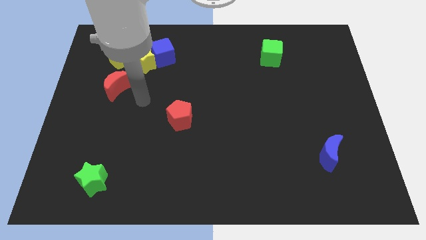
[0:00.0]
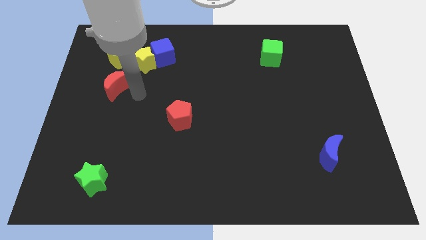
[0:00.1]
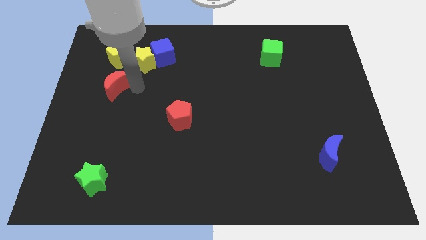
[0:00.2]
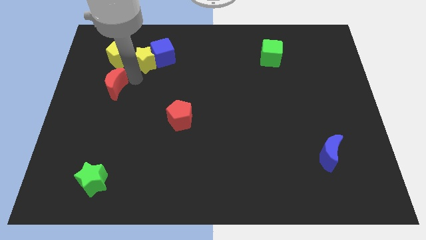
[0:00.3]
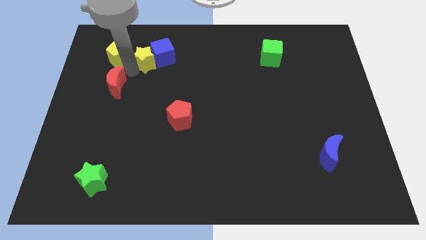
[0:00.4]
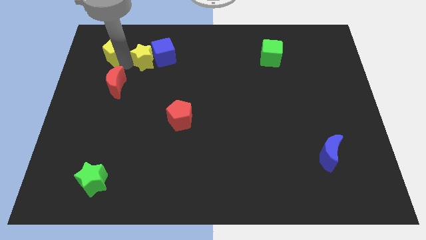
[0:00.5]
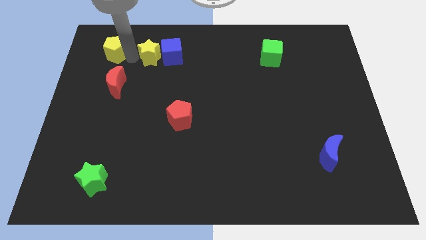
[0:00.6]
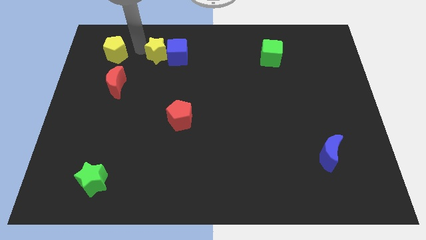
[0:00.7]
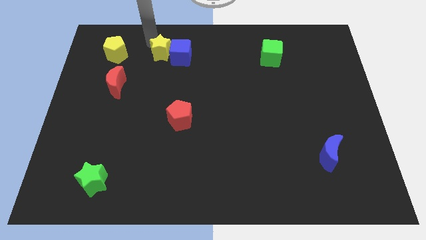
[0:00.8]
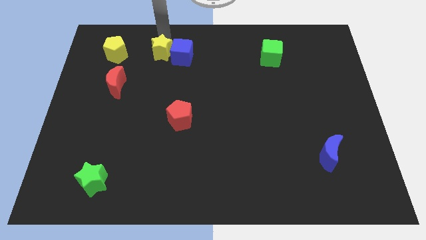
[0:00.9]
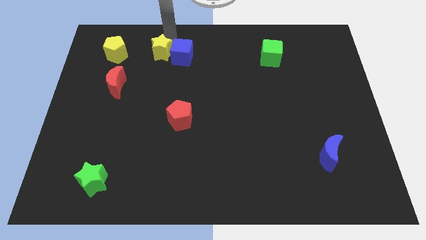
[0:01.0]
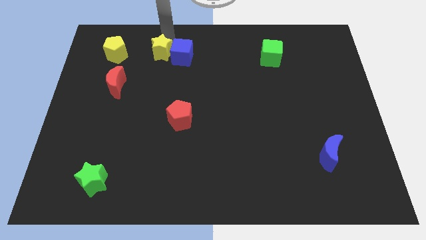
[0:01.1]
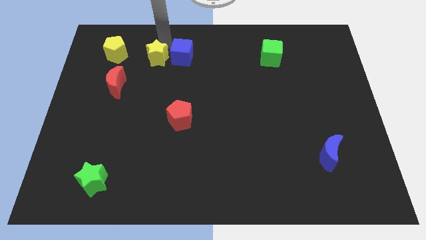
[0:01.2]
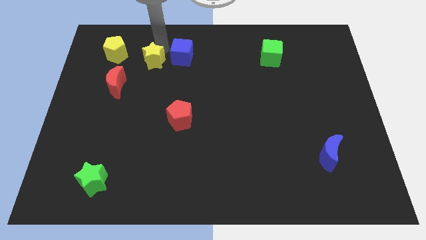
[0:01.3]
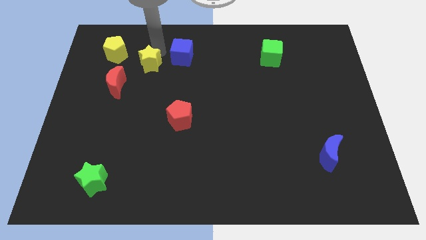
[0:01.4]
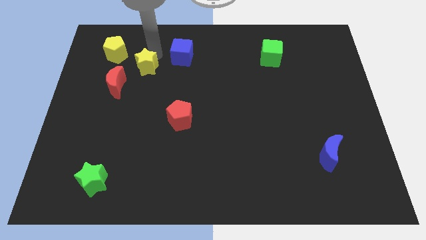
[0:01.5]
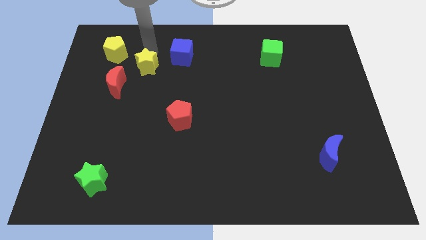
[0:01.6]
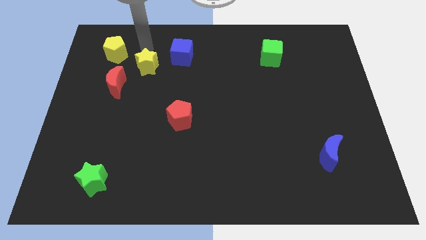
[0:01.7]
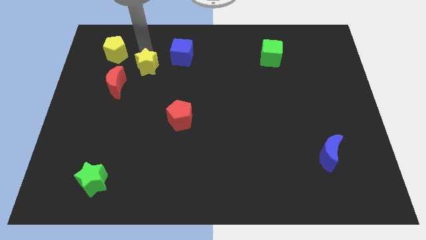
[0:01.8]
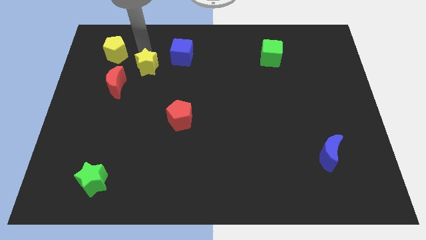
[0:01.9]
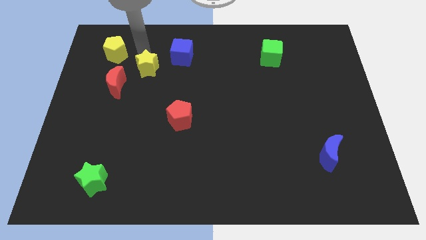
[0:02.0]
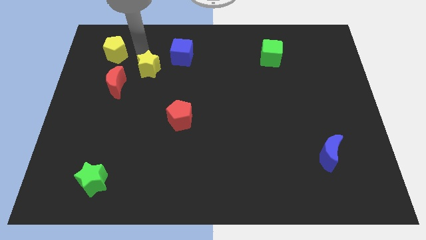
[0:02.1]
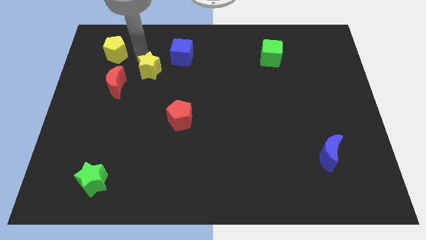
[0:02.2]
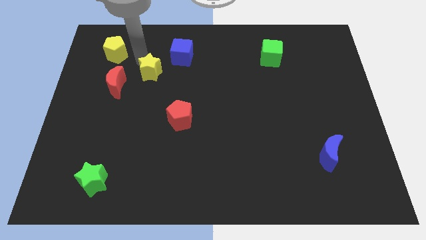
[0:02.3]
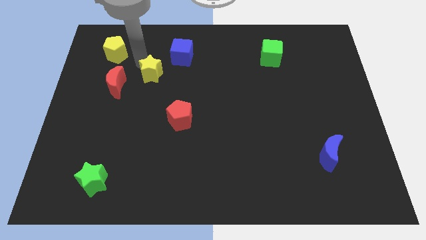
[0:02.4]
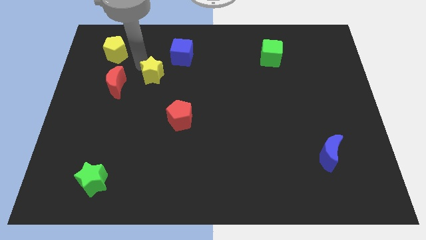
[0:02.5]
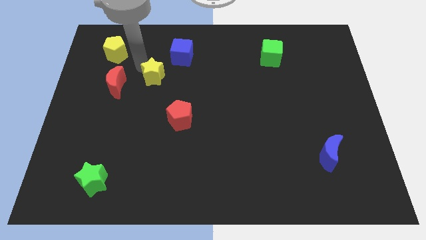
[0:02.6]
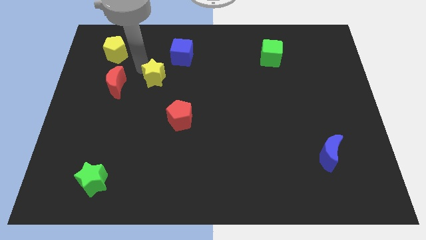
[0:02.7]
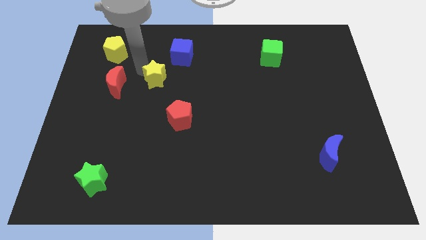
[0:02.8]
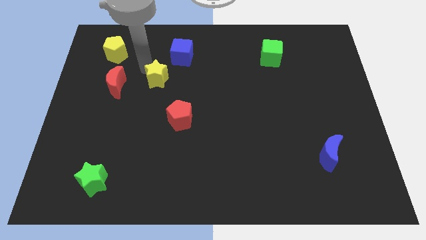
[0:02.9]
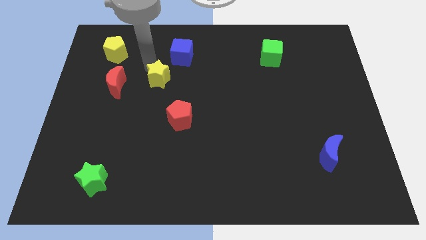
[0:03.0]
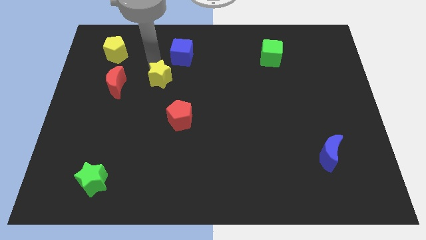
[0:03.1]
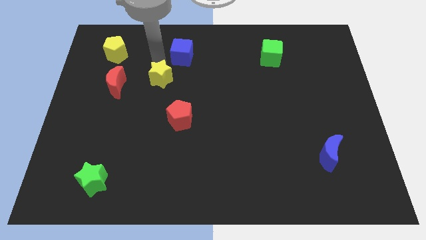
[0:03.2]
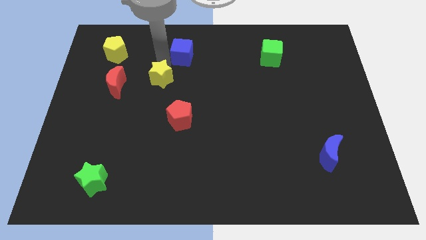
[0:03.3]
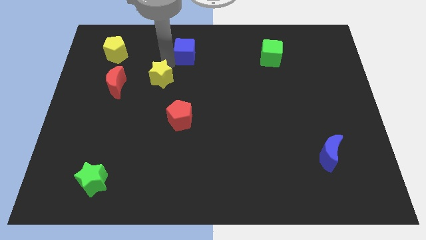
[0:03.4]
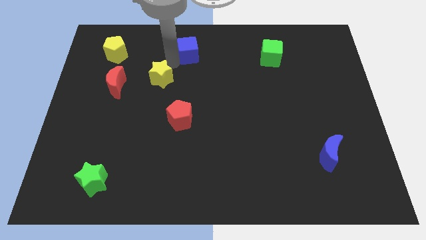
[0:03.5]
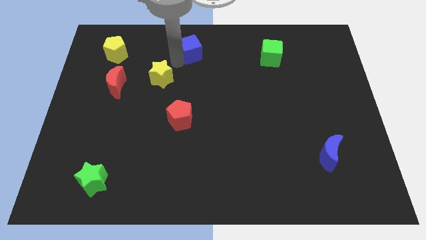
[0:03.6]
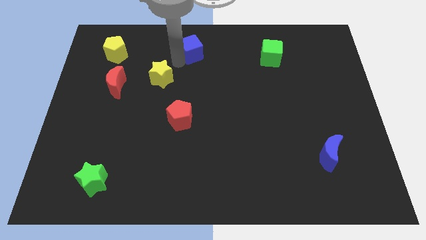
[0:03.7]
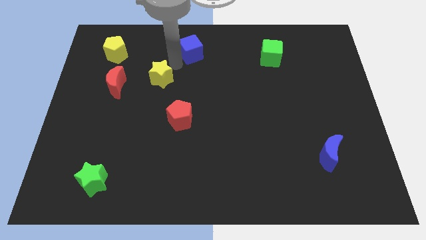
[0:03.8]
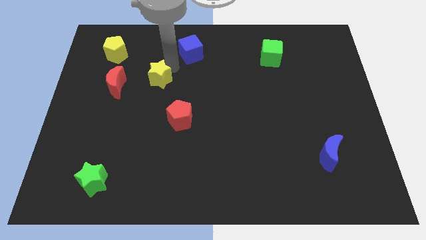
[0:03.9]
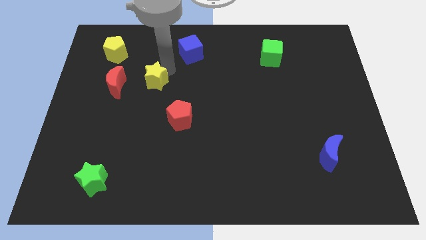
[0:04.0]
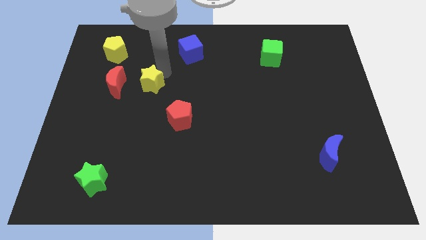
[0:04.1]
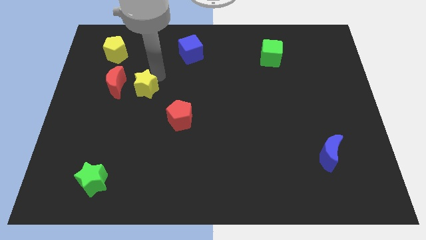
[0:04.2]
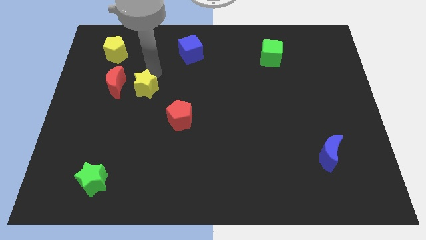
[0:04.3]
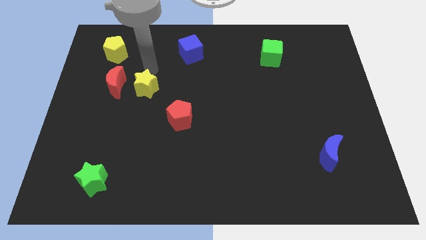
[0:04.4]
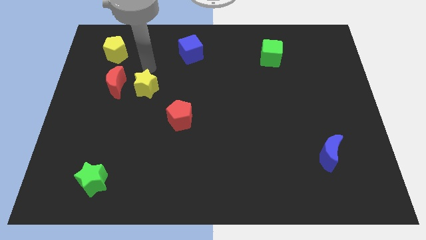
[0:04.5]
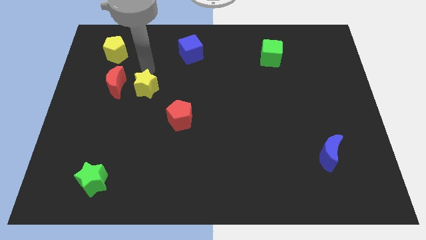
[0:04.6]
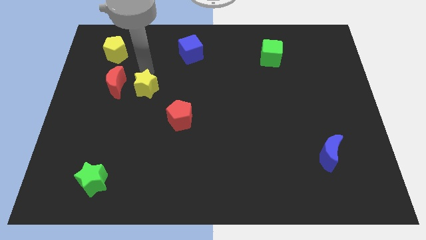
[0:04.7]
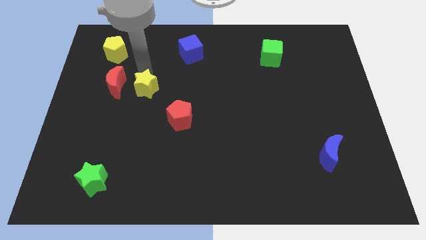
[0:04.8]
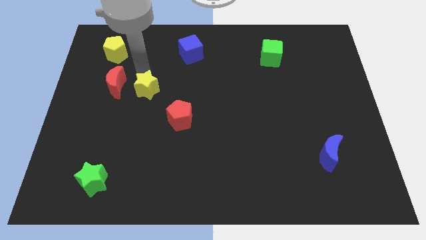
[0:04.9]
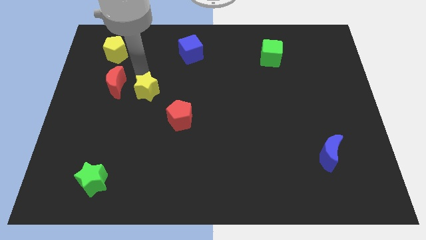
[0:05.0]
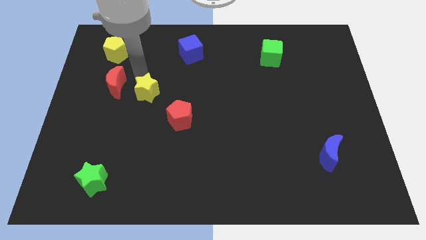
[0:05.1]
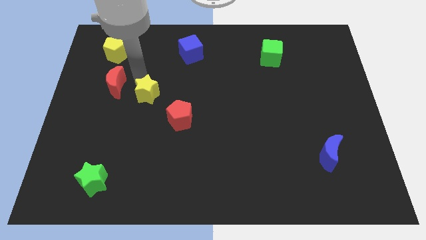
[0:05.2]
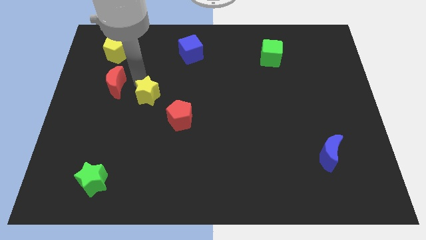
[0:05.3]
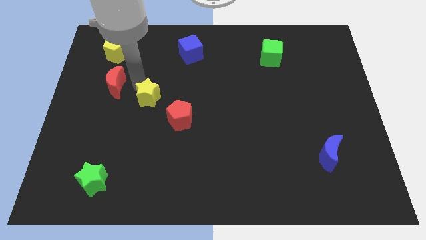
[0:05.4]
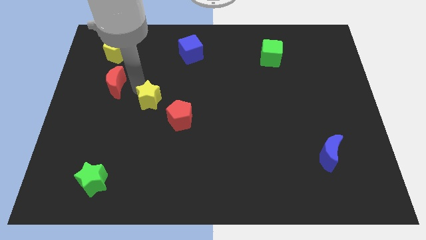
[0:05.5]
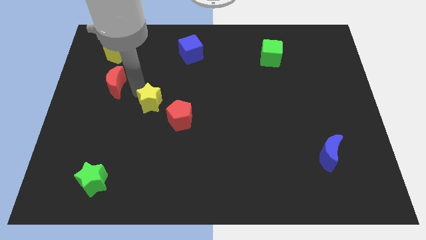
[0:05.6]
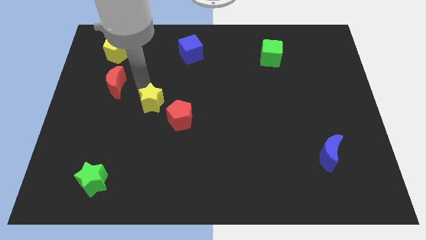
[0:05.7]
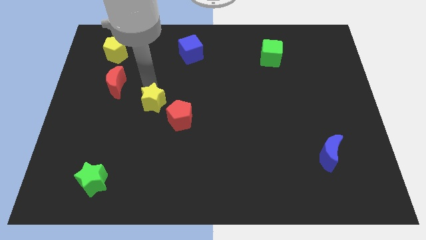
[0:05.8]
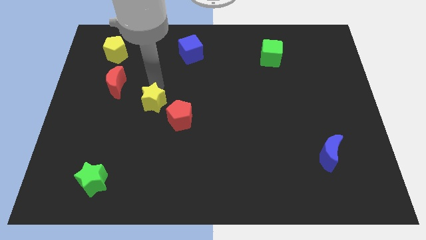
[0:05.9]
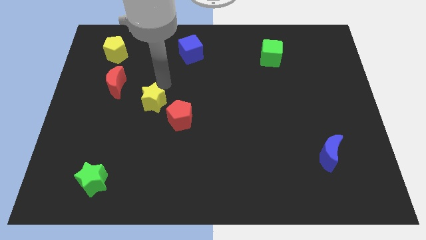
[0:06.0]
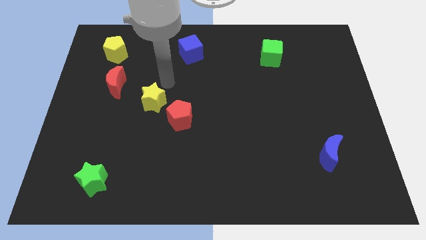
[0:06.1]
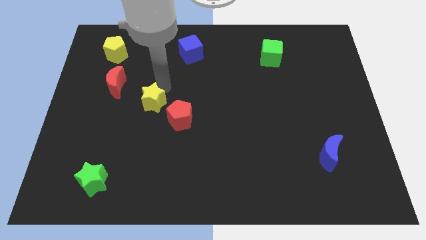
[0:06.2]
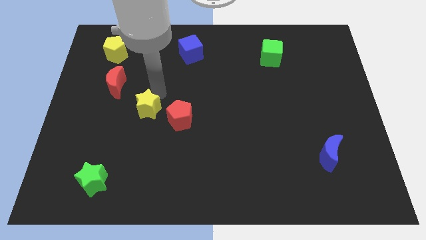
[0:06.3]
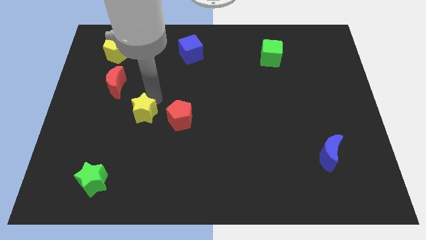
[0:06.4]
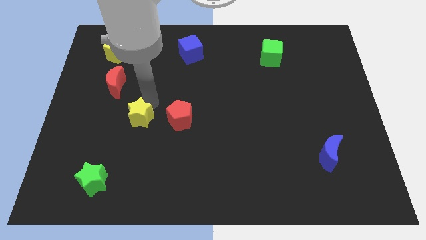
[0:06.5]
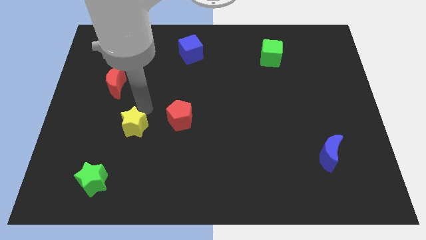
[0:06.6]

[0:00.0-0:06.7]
slide the yellow star down

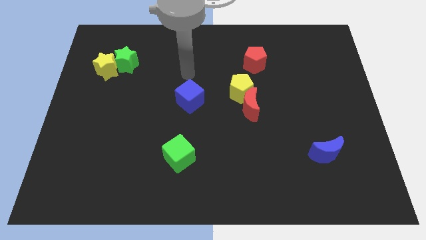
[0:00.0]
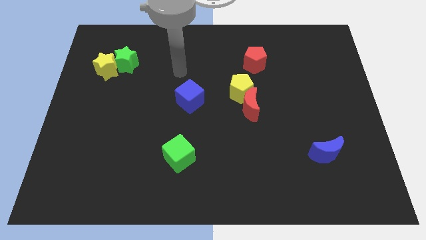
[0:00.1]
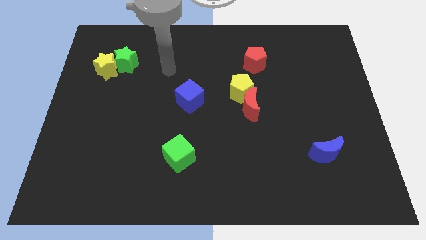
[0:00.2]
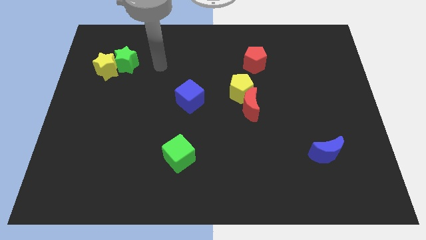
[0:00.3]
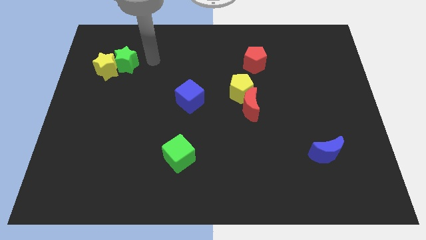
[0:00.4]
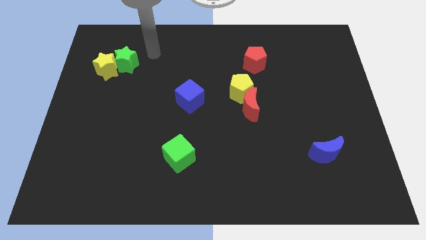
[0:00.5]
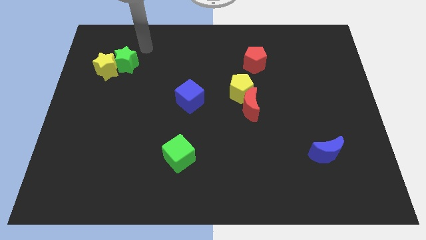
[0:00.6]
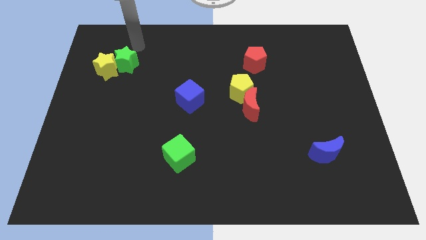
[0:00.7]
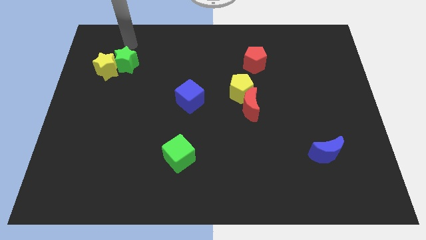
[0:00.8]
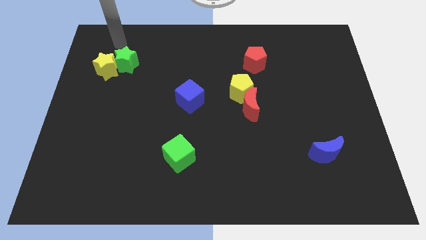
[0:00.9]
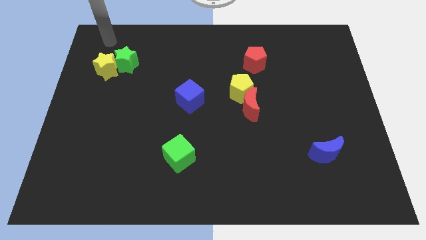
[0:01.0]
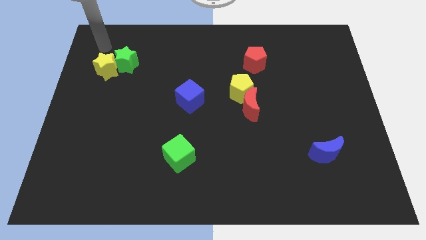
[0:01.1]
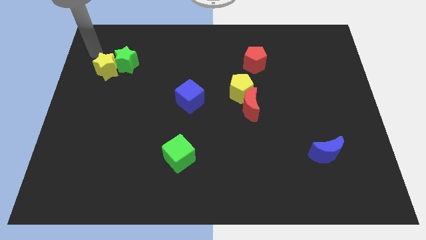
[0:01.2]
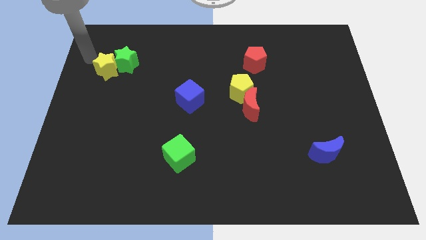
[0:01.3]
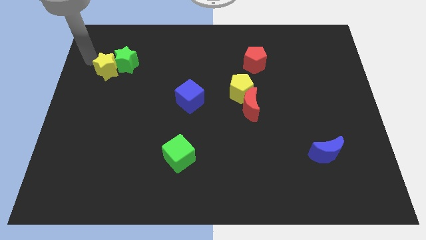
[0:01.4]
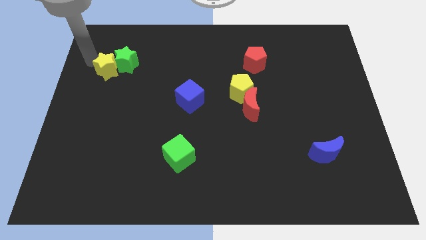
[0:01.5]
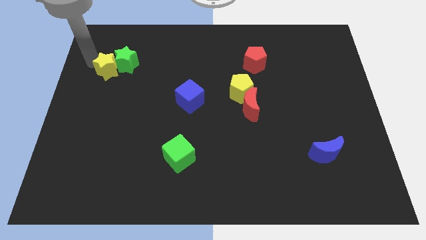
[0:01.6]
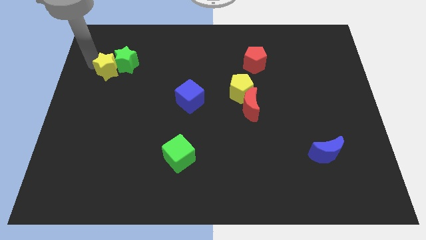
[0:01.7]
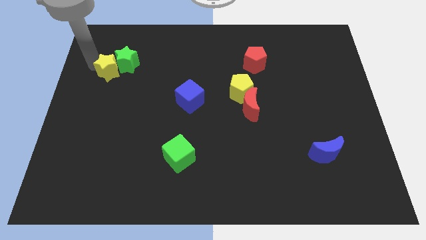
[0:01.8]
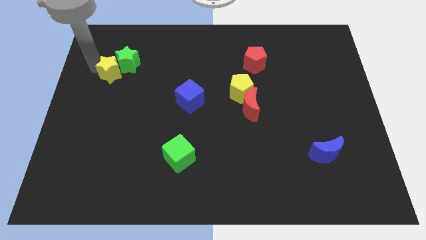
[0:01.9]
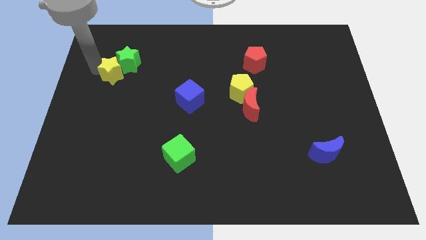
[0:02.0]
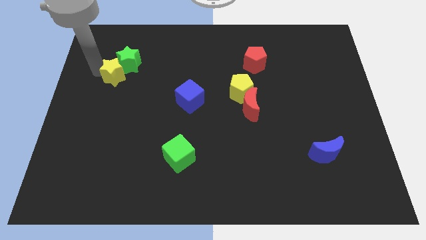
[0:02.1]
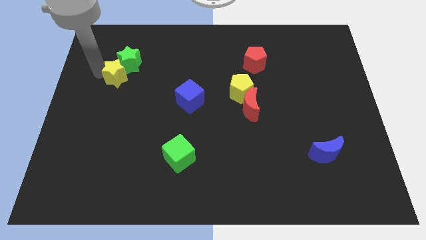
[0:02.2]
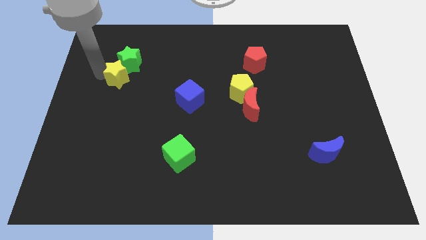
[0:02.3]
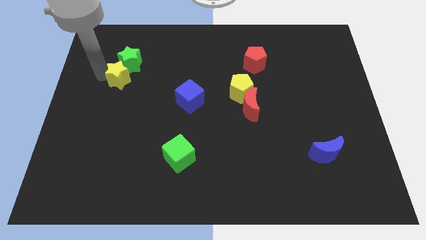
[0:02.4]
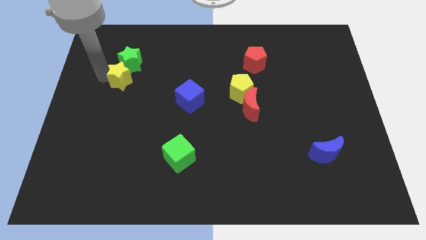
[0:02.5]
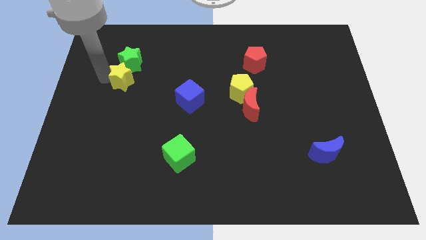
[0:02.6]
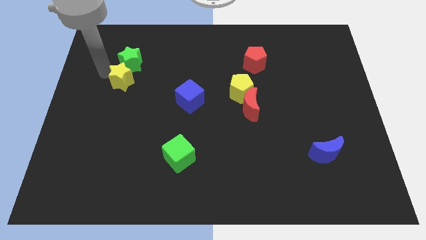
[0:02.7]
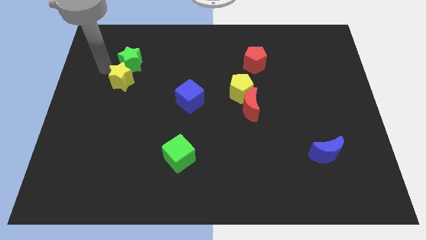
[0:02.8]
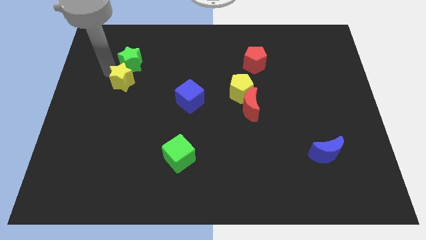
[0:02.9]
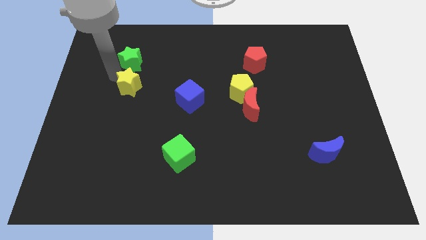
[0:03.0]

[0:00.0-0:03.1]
push the yellow star down and to the right diagonally a bit
